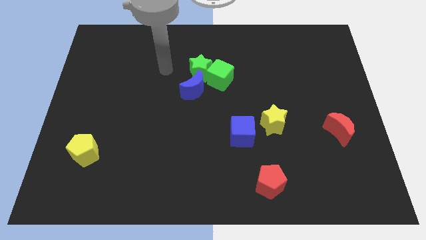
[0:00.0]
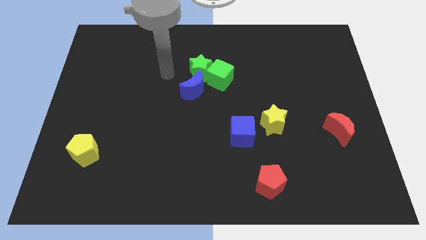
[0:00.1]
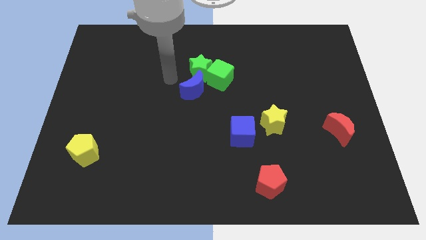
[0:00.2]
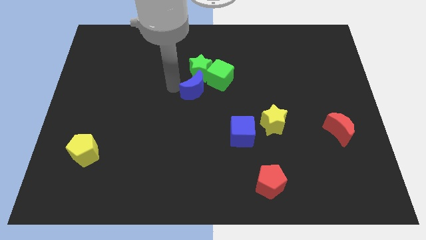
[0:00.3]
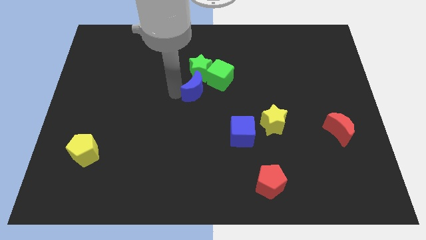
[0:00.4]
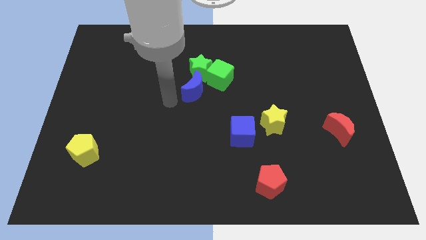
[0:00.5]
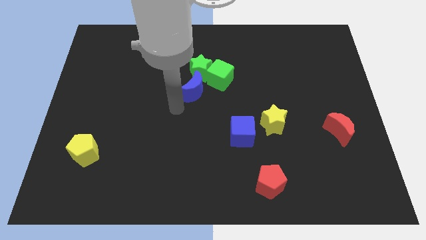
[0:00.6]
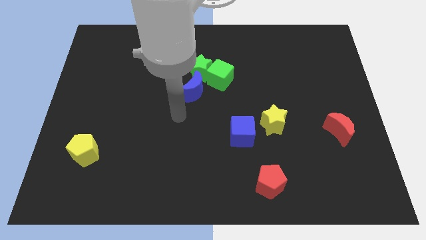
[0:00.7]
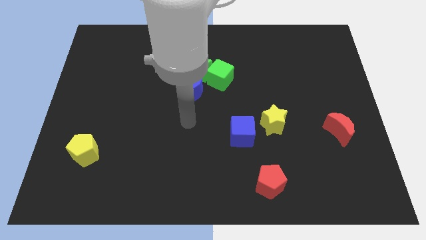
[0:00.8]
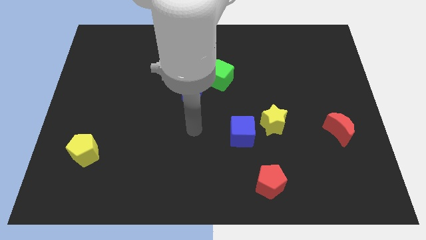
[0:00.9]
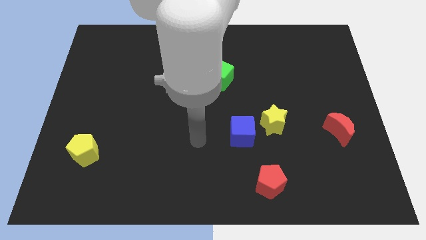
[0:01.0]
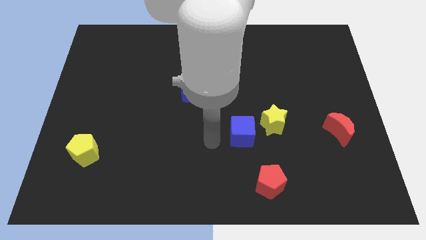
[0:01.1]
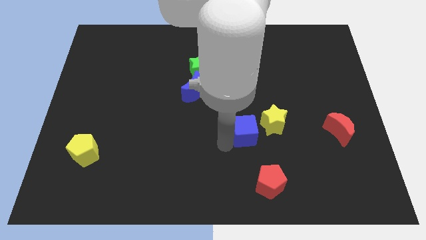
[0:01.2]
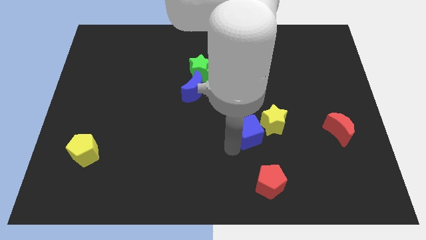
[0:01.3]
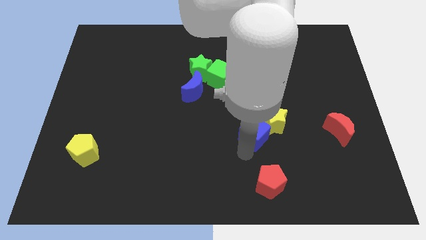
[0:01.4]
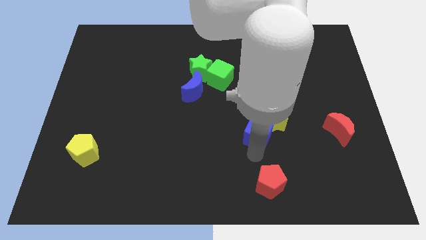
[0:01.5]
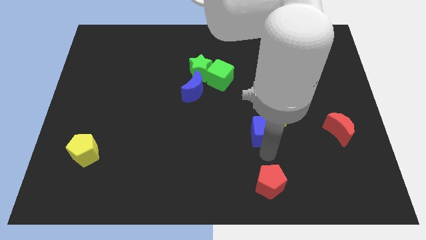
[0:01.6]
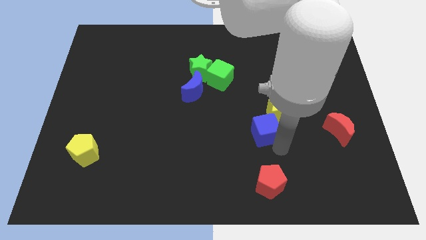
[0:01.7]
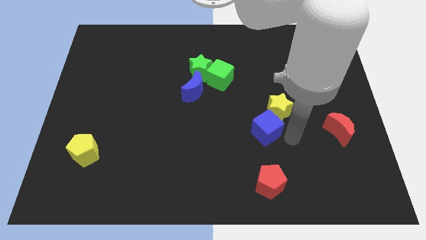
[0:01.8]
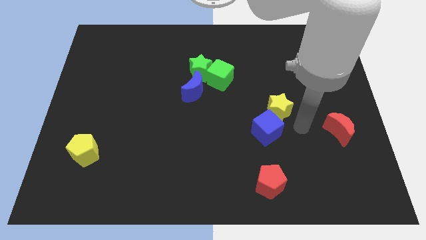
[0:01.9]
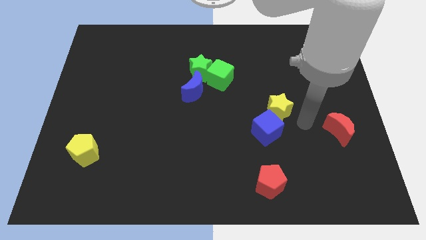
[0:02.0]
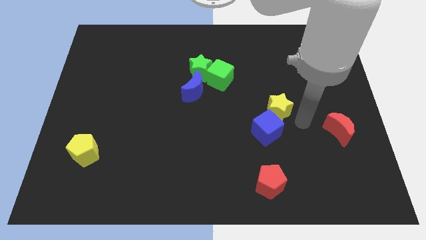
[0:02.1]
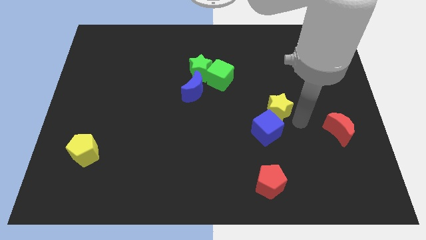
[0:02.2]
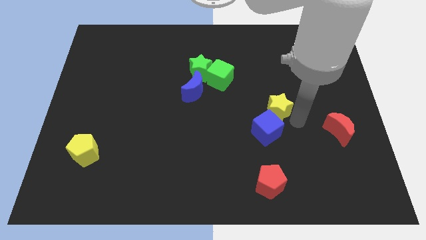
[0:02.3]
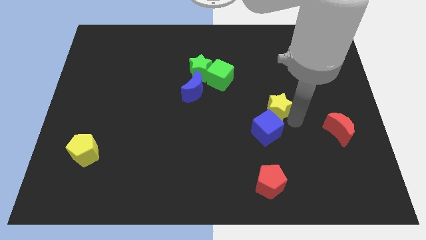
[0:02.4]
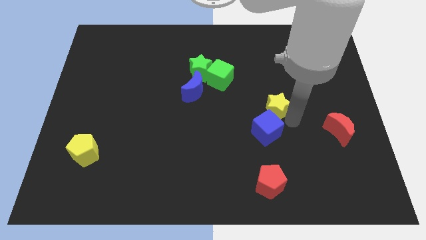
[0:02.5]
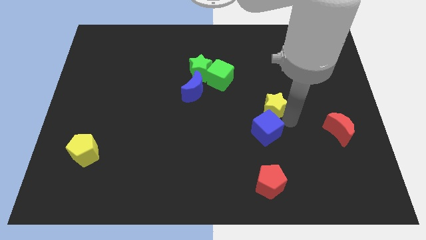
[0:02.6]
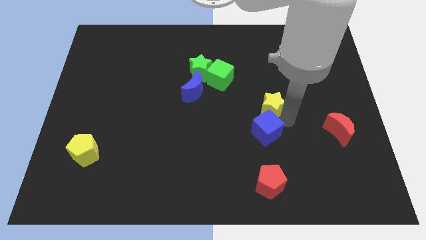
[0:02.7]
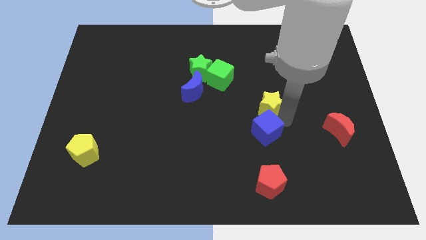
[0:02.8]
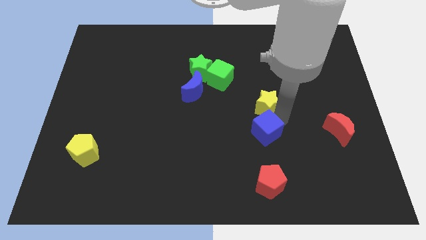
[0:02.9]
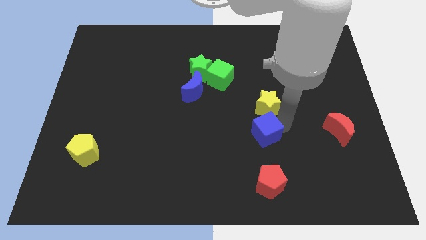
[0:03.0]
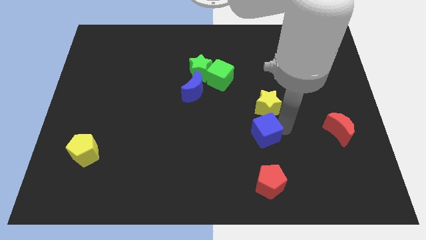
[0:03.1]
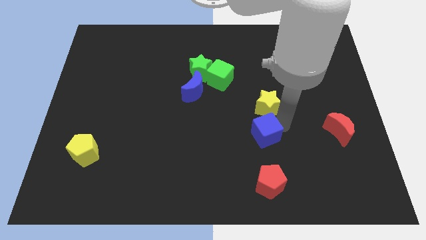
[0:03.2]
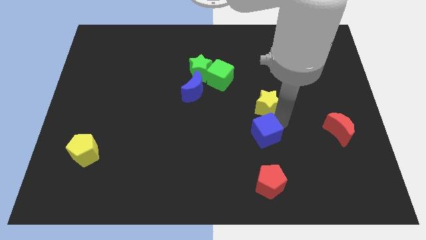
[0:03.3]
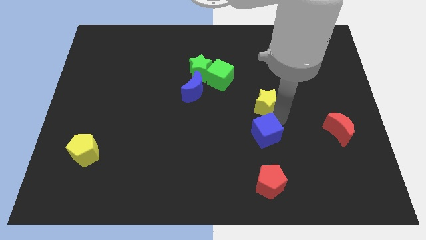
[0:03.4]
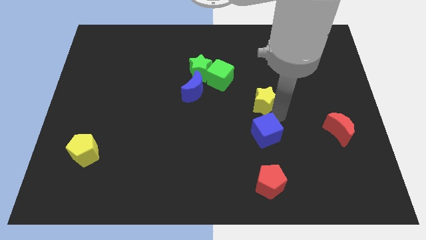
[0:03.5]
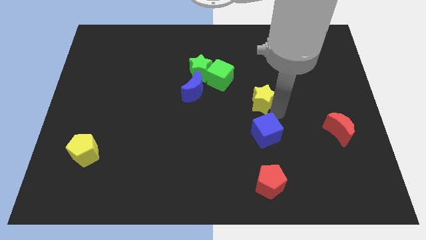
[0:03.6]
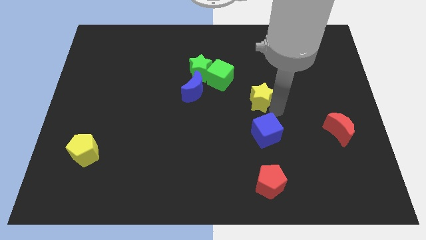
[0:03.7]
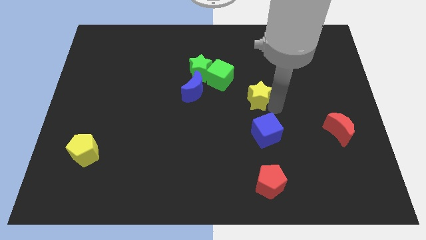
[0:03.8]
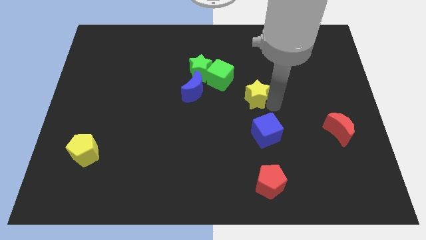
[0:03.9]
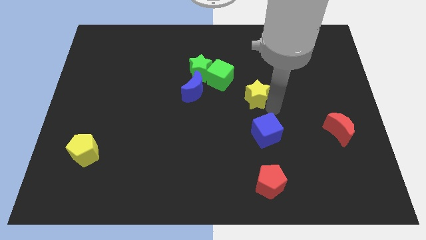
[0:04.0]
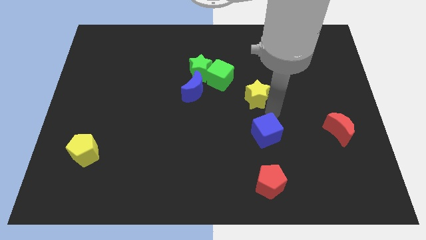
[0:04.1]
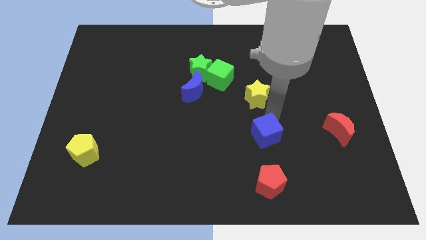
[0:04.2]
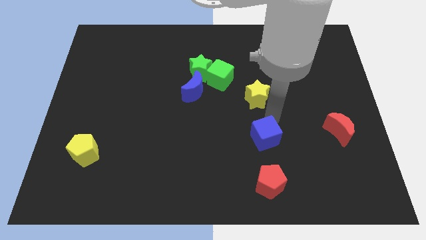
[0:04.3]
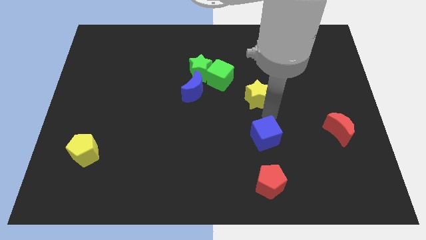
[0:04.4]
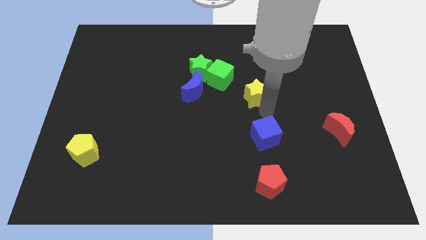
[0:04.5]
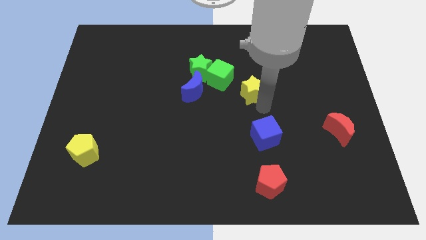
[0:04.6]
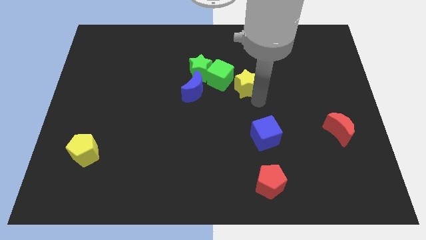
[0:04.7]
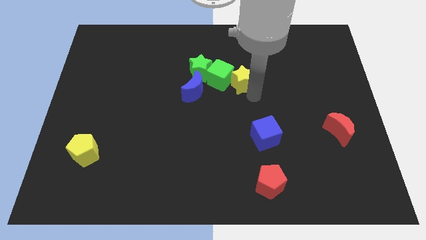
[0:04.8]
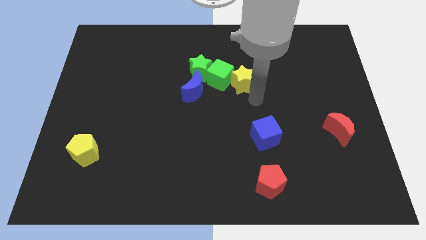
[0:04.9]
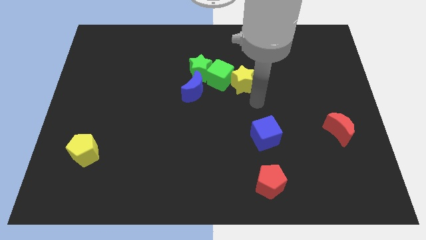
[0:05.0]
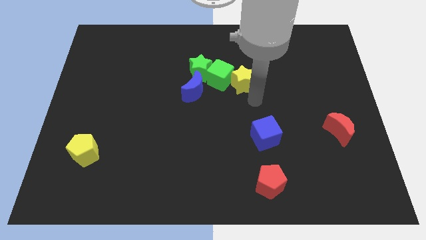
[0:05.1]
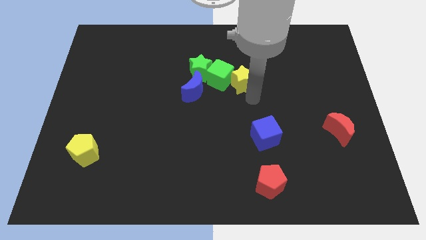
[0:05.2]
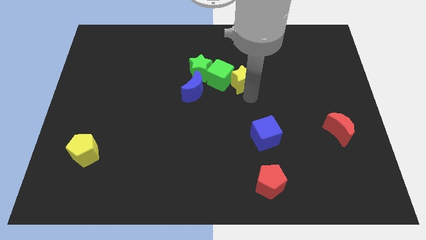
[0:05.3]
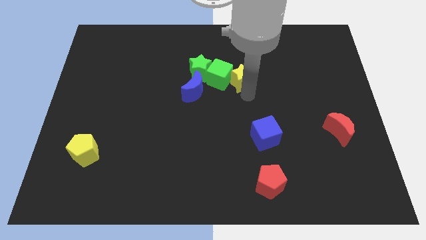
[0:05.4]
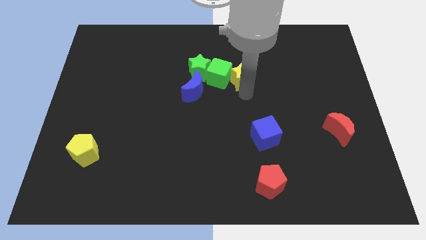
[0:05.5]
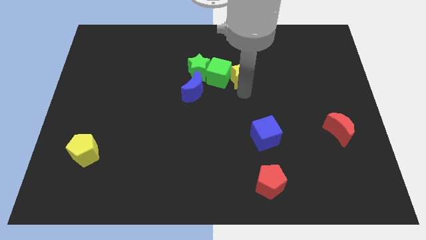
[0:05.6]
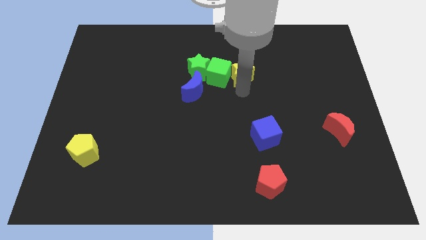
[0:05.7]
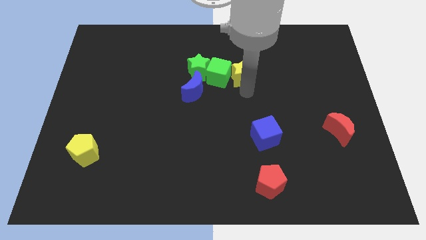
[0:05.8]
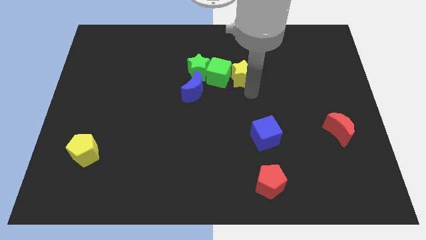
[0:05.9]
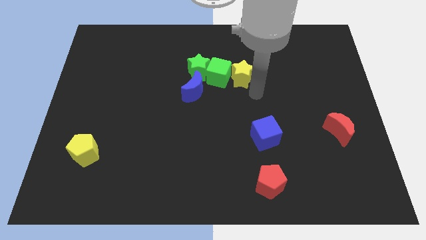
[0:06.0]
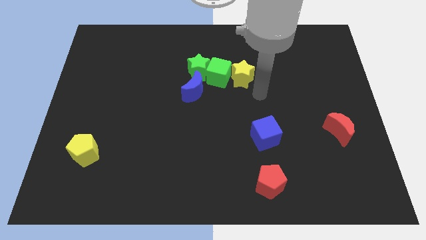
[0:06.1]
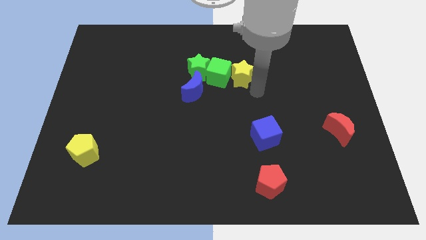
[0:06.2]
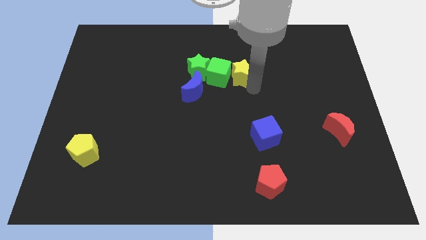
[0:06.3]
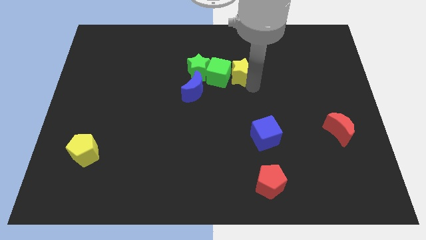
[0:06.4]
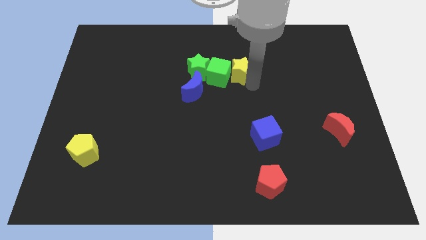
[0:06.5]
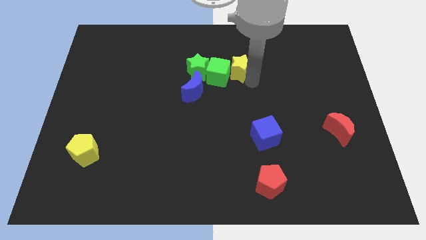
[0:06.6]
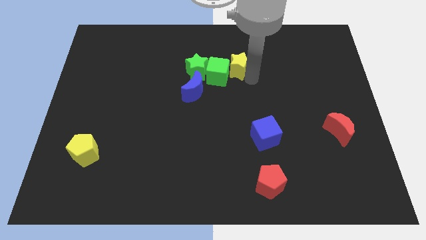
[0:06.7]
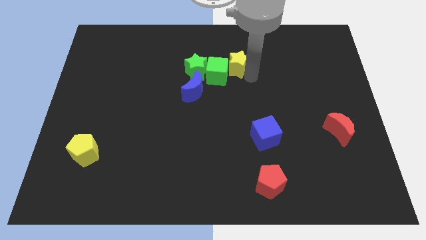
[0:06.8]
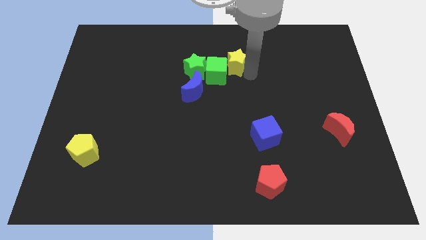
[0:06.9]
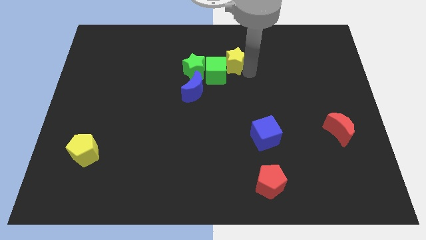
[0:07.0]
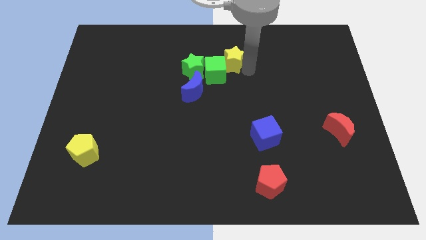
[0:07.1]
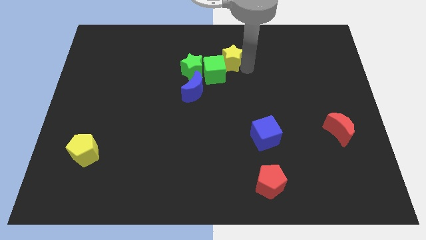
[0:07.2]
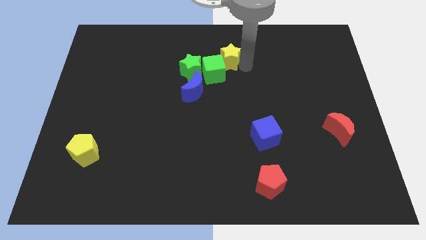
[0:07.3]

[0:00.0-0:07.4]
push the yellow star to the top right of the green star

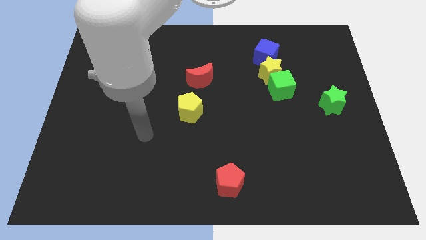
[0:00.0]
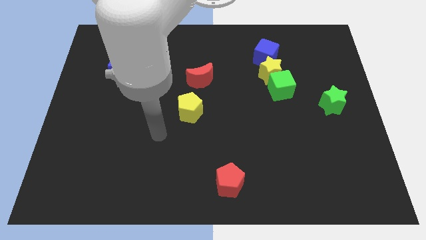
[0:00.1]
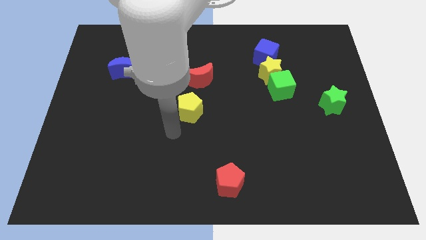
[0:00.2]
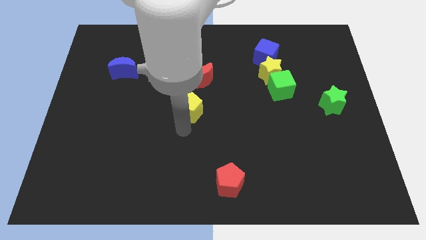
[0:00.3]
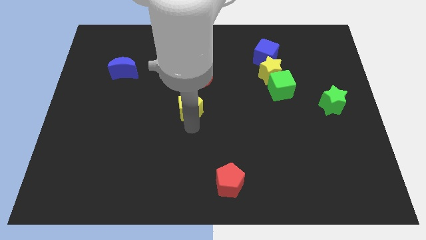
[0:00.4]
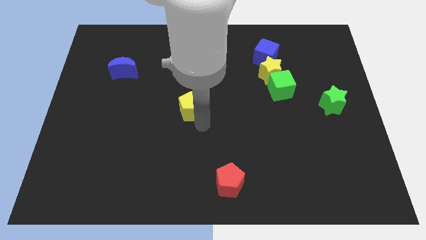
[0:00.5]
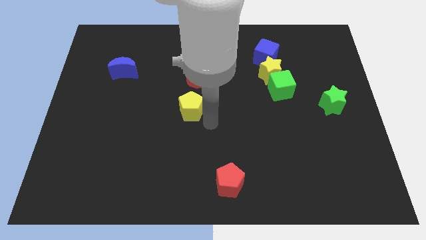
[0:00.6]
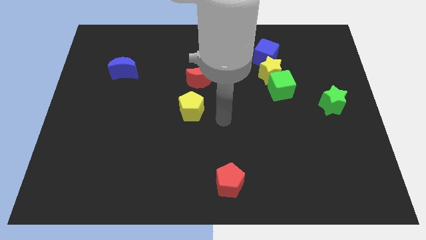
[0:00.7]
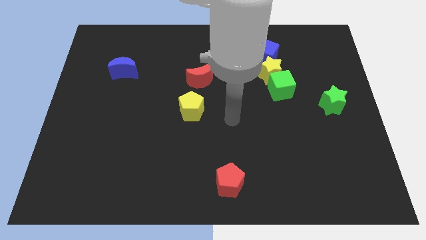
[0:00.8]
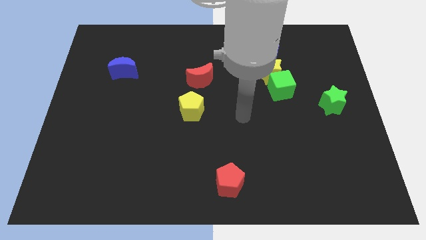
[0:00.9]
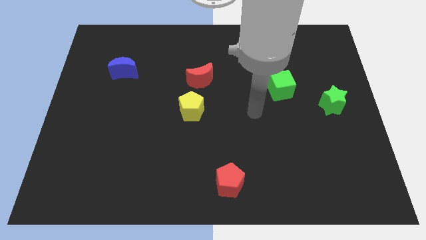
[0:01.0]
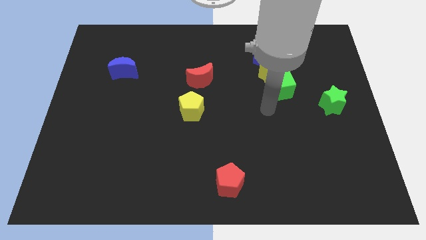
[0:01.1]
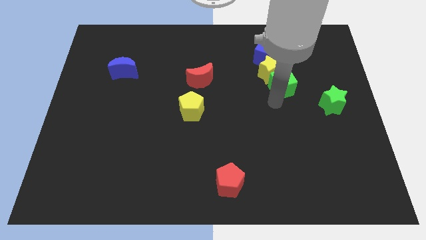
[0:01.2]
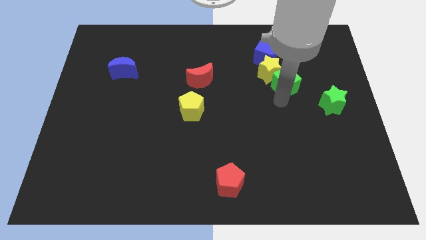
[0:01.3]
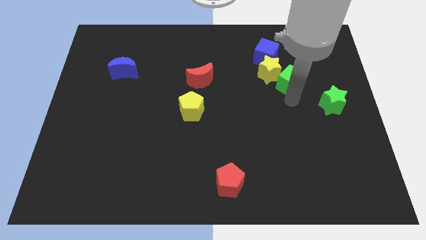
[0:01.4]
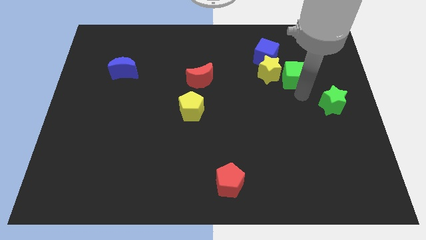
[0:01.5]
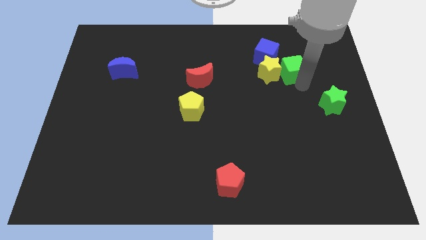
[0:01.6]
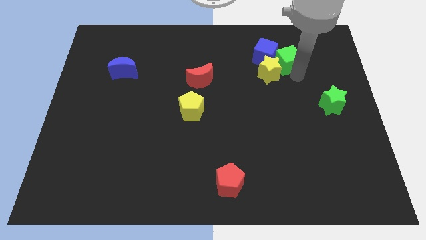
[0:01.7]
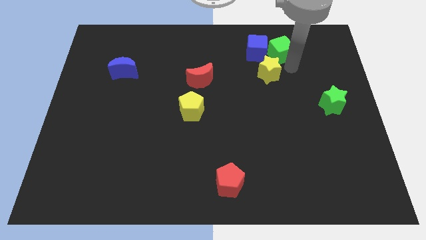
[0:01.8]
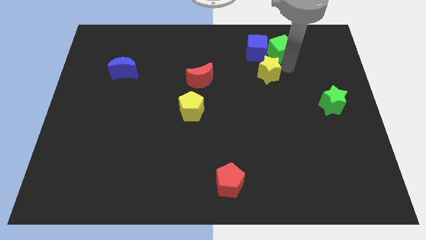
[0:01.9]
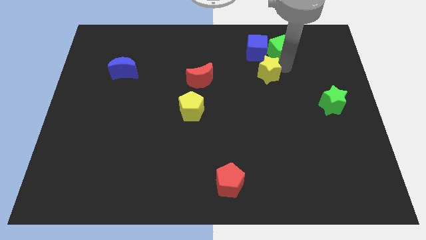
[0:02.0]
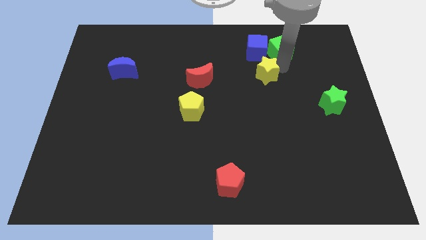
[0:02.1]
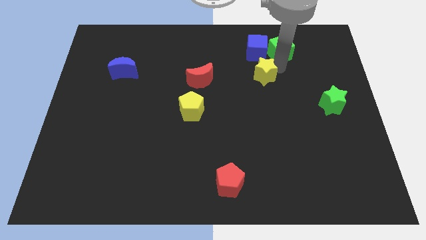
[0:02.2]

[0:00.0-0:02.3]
push the yellow star to the right of the red moon
